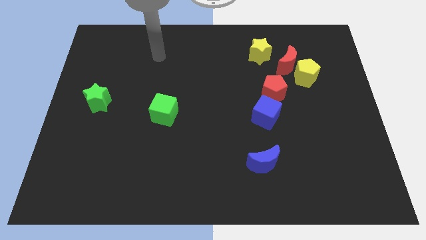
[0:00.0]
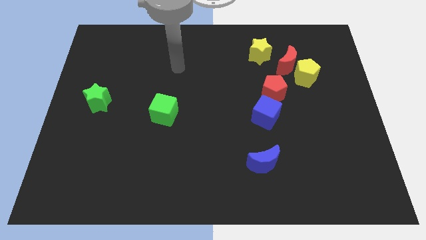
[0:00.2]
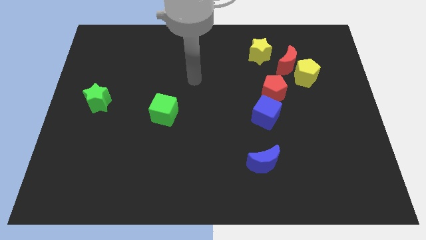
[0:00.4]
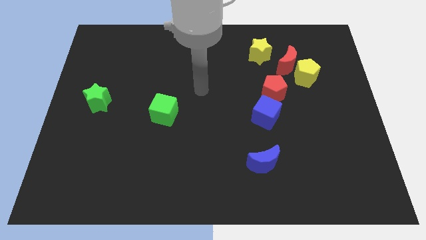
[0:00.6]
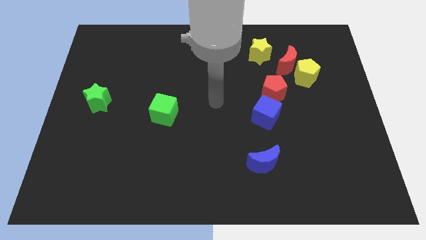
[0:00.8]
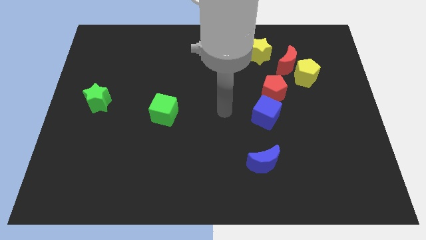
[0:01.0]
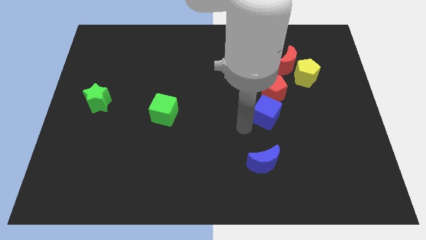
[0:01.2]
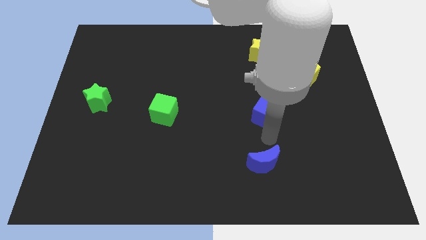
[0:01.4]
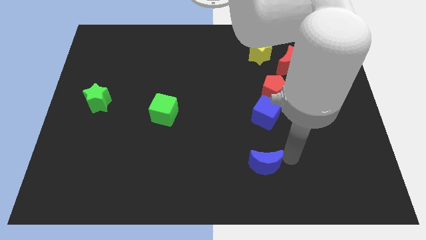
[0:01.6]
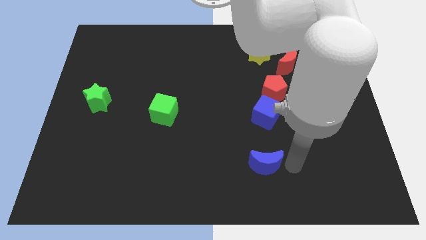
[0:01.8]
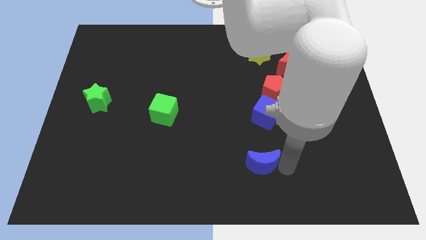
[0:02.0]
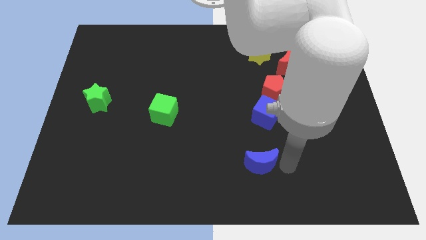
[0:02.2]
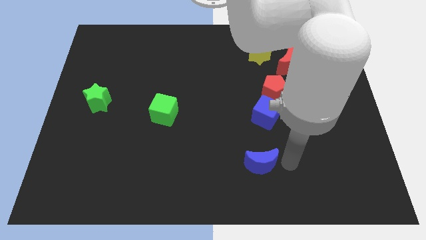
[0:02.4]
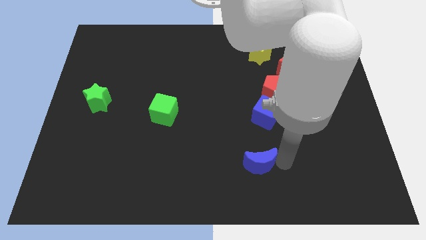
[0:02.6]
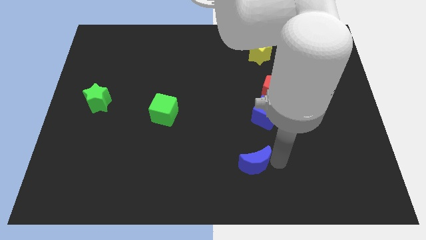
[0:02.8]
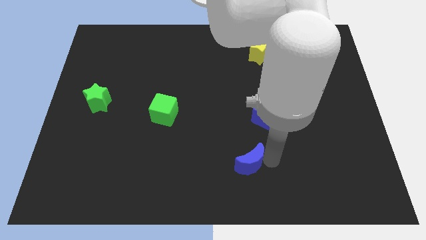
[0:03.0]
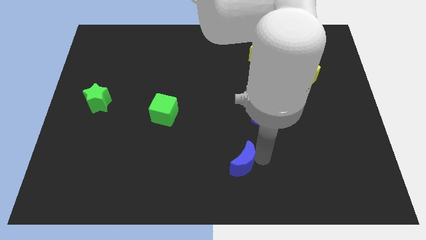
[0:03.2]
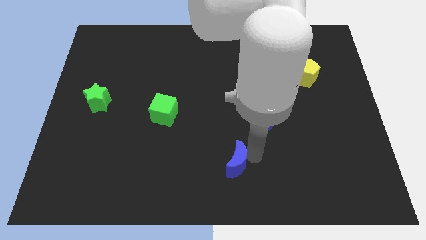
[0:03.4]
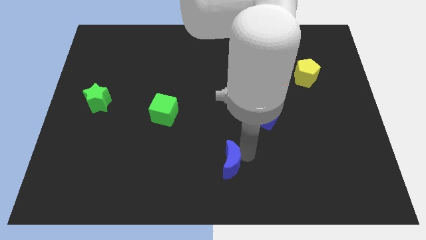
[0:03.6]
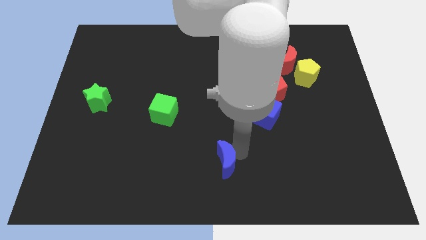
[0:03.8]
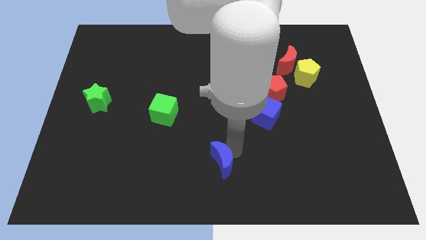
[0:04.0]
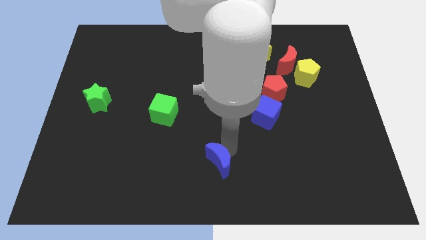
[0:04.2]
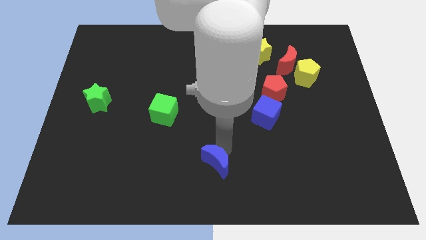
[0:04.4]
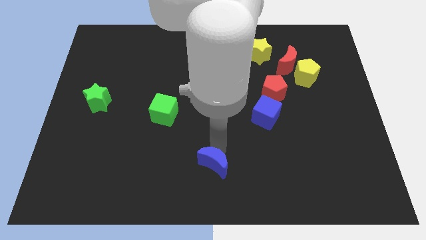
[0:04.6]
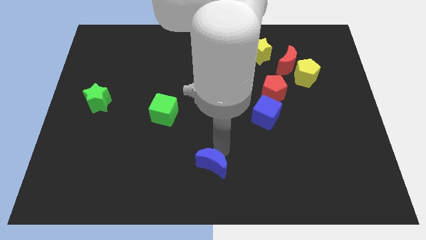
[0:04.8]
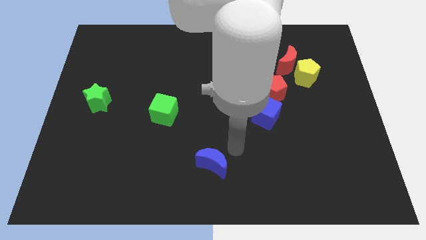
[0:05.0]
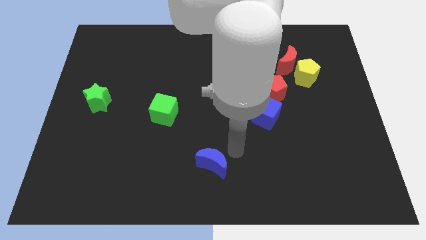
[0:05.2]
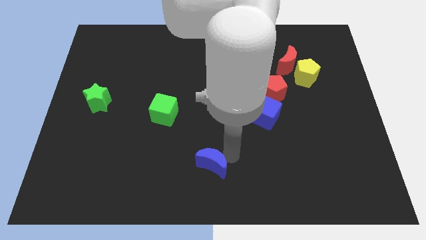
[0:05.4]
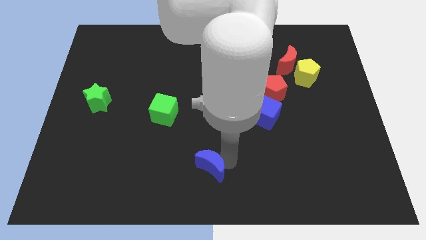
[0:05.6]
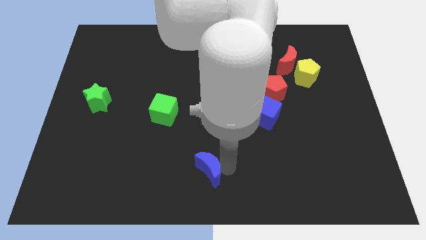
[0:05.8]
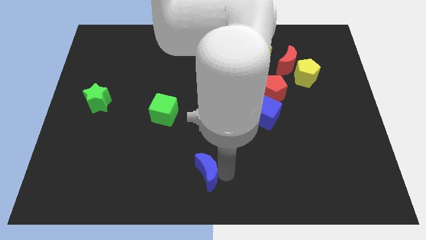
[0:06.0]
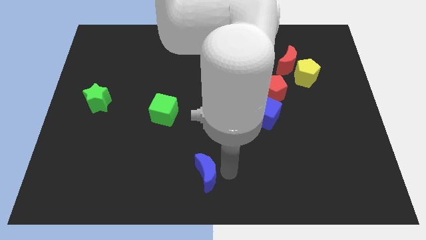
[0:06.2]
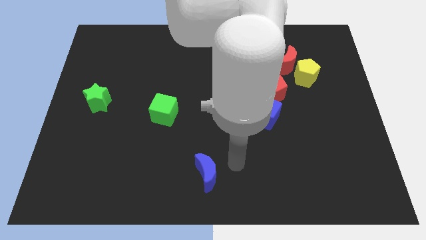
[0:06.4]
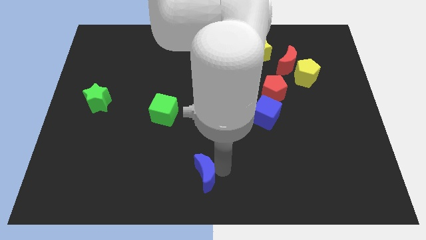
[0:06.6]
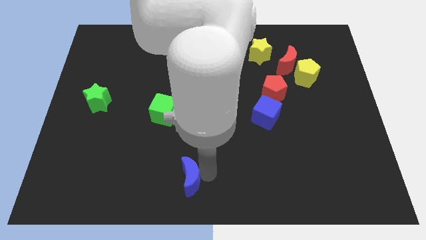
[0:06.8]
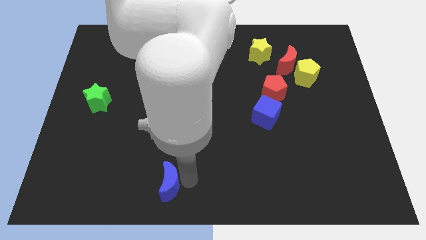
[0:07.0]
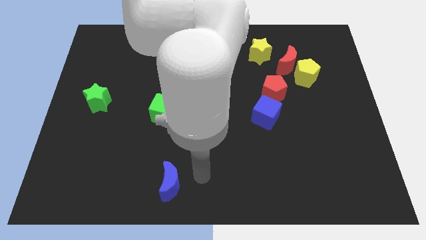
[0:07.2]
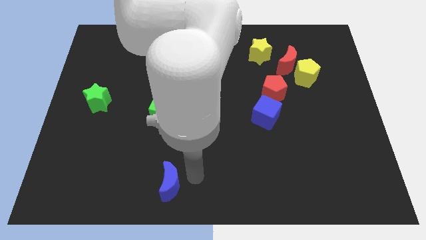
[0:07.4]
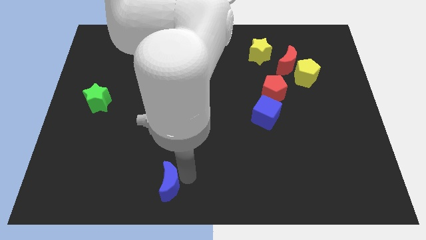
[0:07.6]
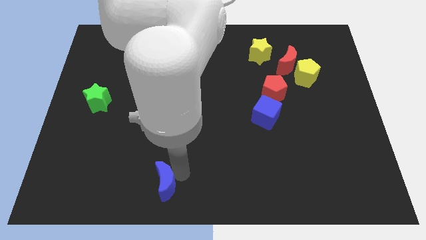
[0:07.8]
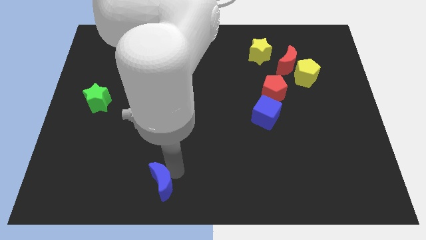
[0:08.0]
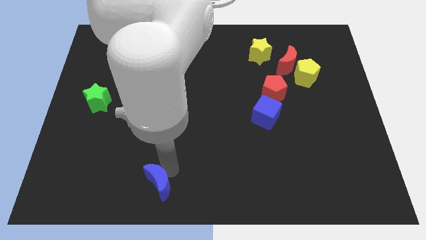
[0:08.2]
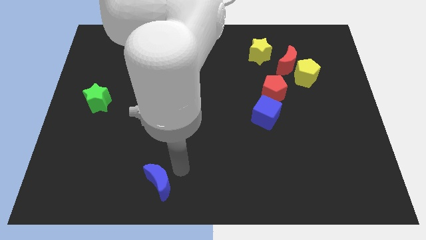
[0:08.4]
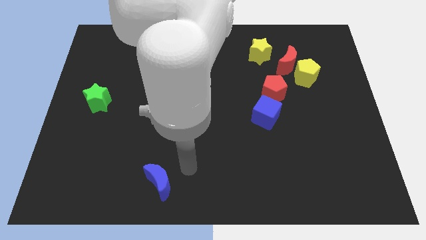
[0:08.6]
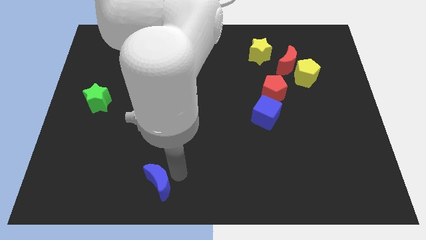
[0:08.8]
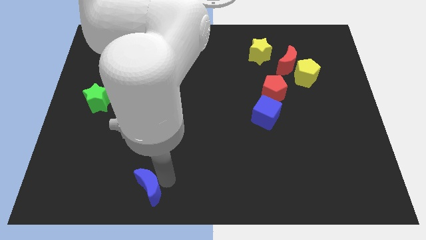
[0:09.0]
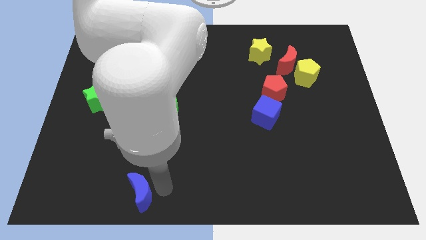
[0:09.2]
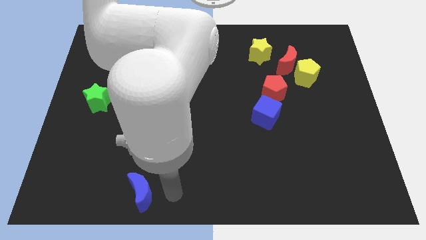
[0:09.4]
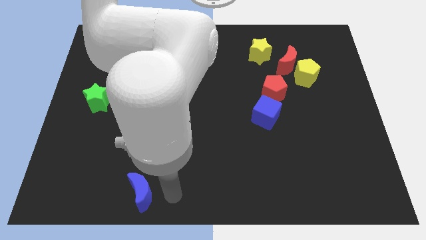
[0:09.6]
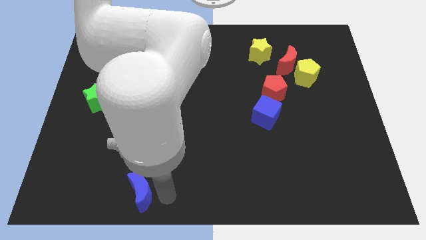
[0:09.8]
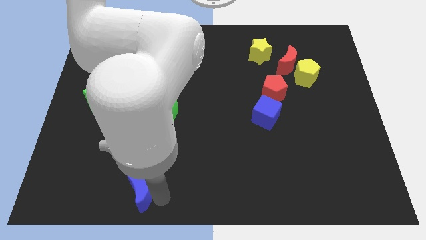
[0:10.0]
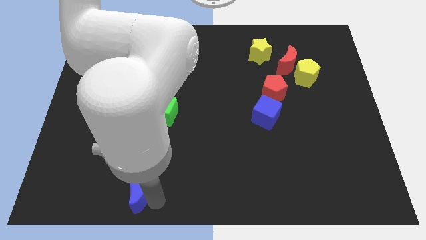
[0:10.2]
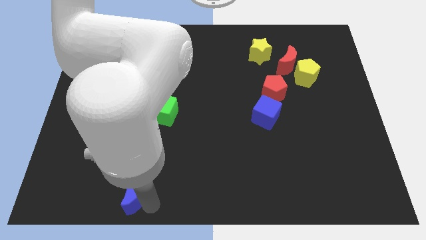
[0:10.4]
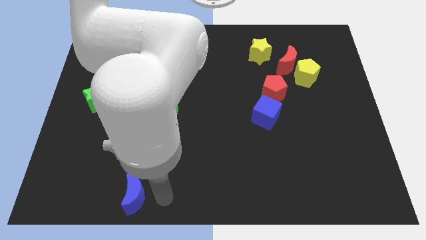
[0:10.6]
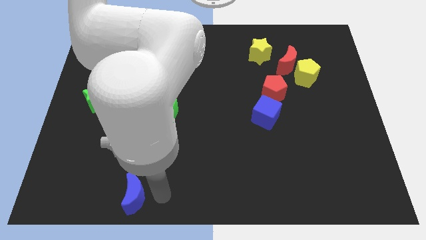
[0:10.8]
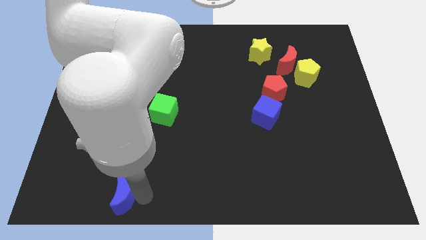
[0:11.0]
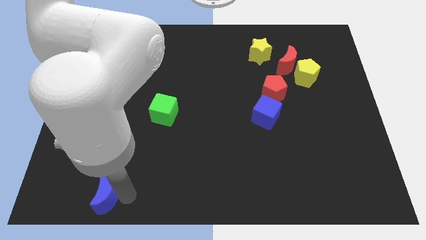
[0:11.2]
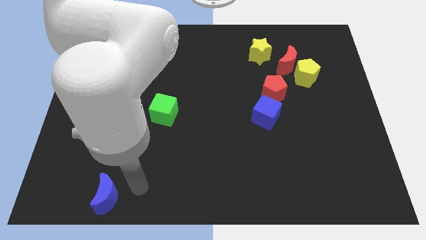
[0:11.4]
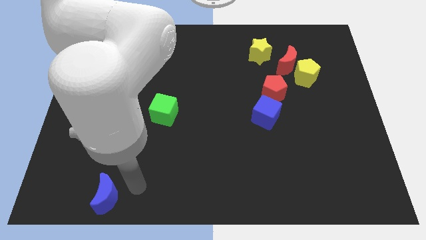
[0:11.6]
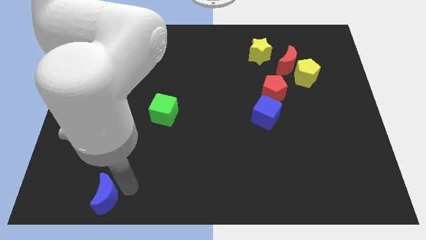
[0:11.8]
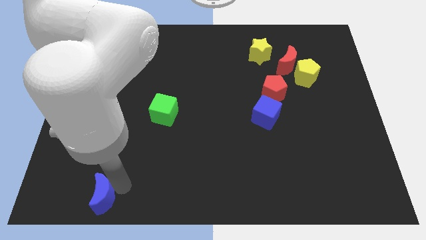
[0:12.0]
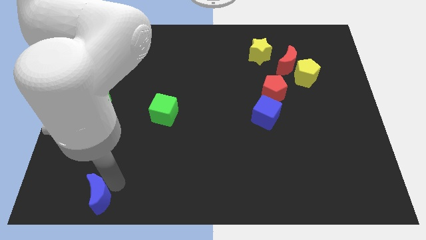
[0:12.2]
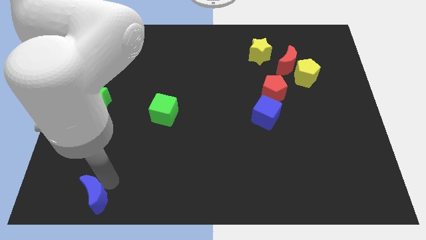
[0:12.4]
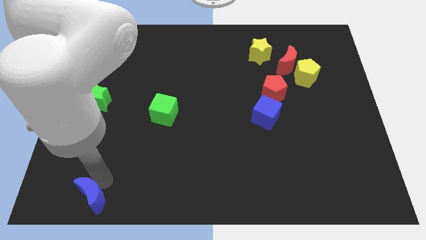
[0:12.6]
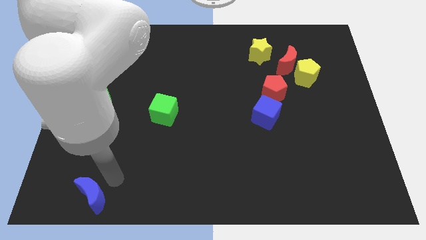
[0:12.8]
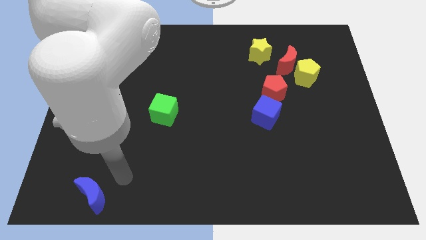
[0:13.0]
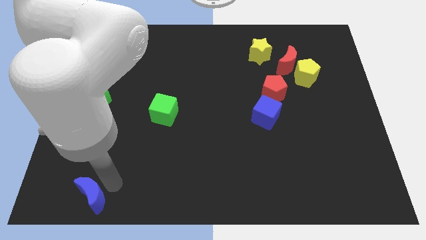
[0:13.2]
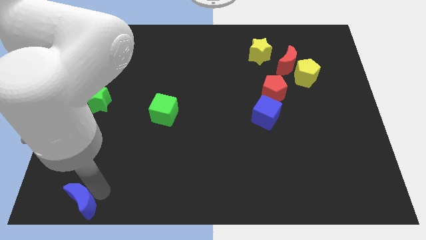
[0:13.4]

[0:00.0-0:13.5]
push the blue moon to the bottom left of the board

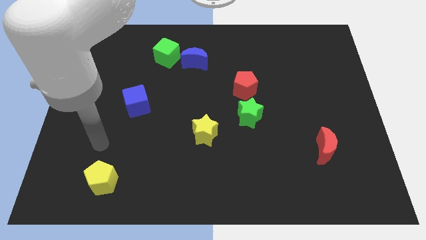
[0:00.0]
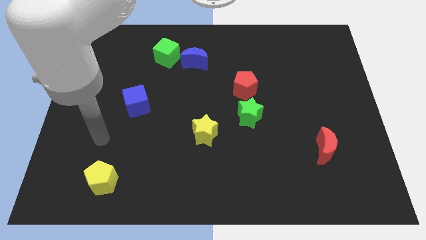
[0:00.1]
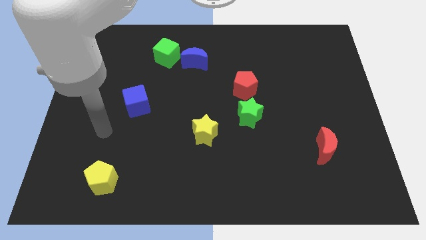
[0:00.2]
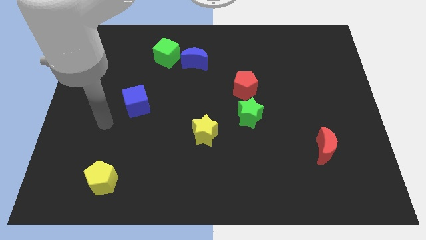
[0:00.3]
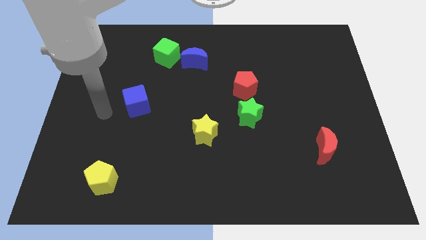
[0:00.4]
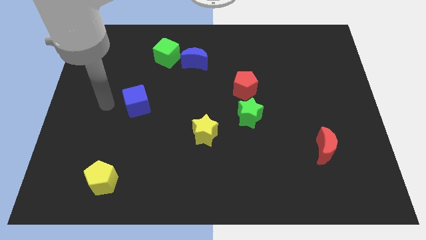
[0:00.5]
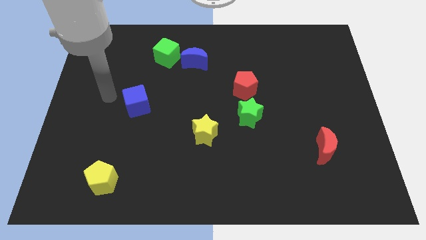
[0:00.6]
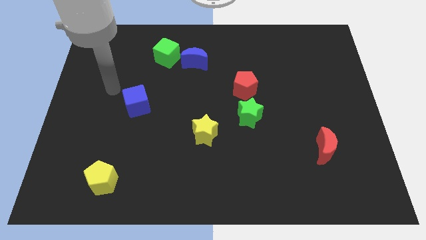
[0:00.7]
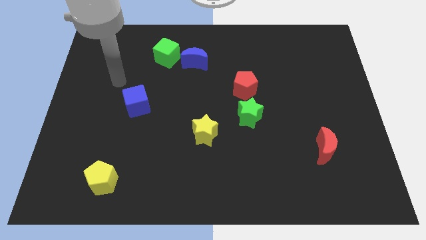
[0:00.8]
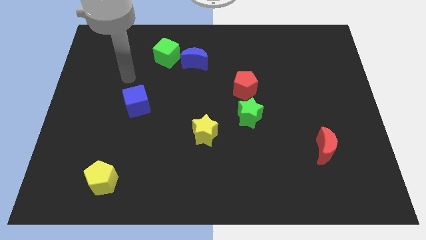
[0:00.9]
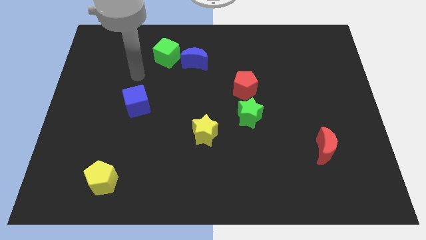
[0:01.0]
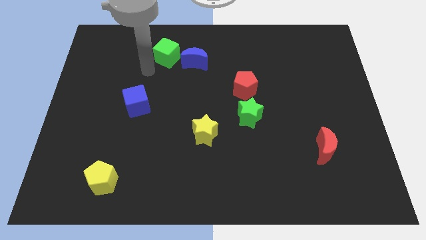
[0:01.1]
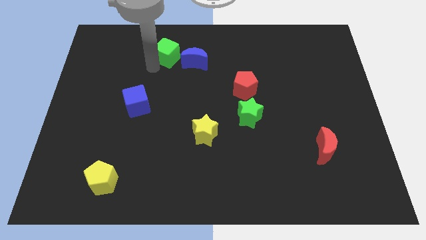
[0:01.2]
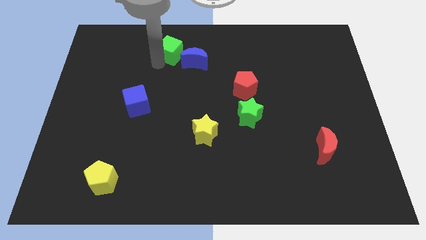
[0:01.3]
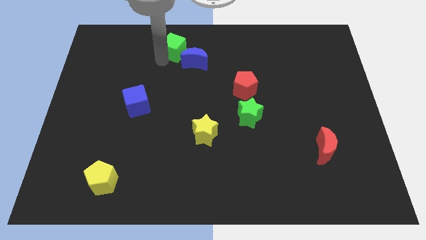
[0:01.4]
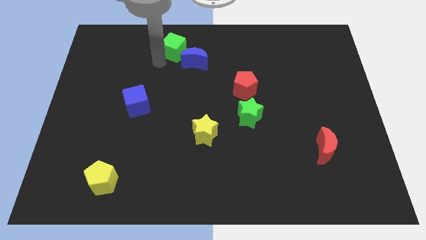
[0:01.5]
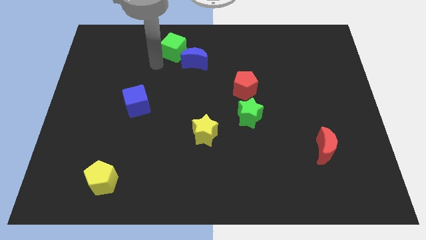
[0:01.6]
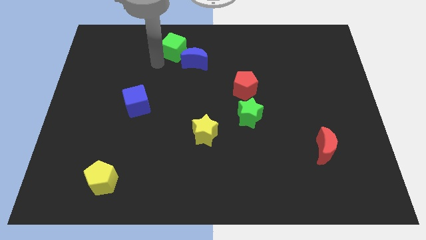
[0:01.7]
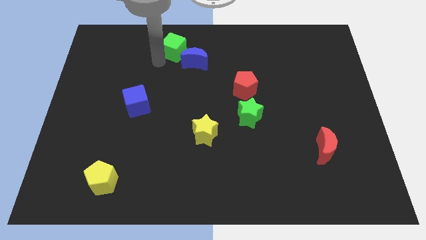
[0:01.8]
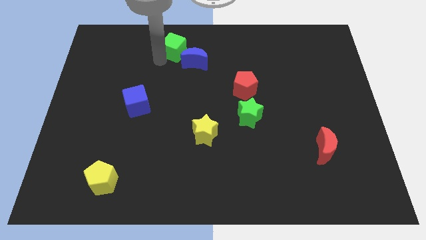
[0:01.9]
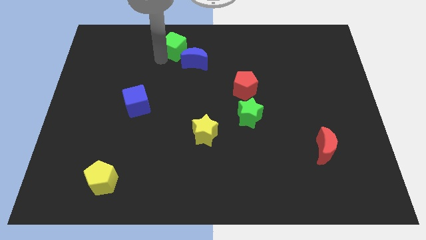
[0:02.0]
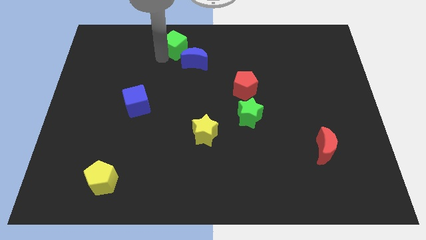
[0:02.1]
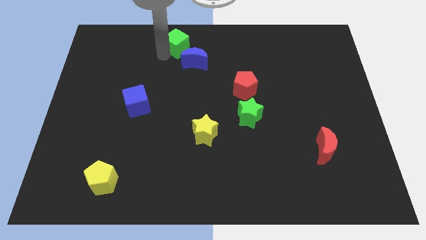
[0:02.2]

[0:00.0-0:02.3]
push the green cube to the top
